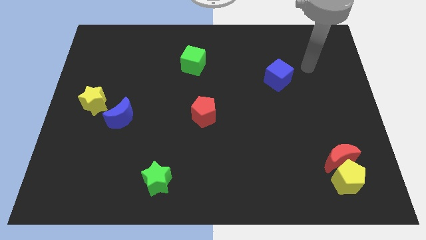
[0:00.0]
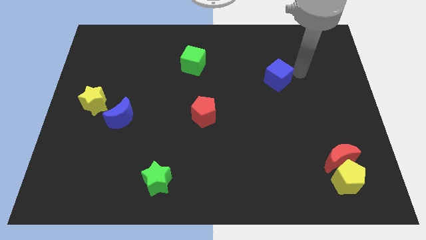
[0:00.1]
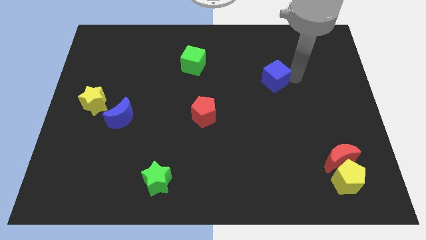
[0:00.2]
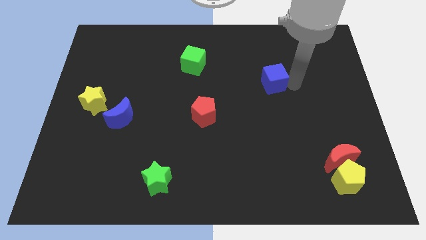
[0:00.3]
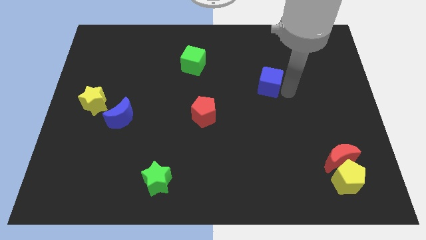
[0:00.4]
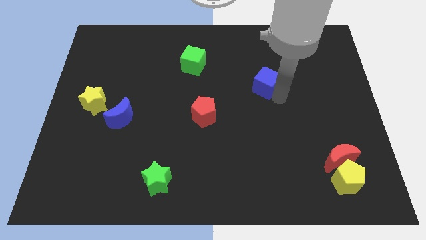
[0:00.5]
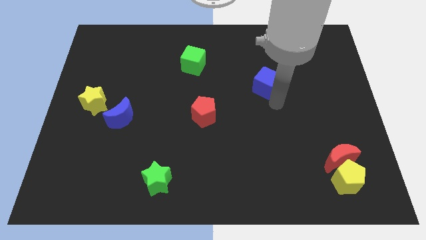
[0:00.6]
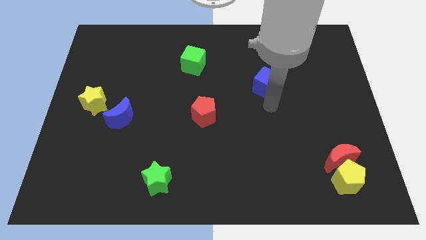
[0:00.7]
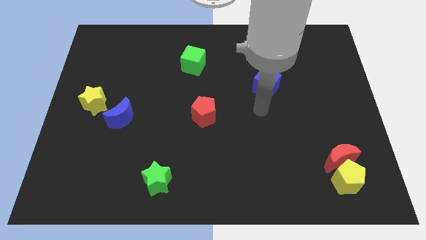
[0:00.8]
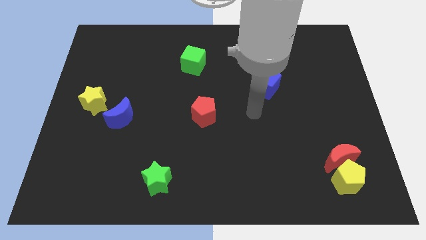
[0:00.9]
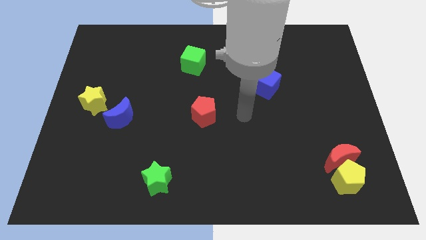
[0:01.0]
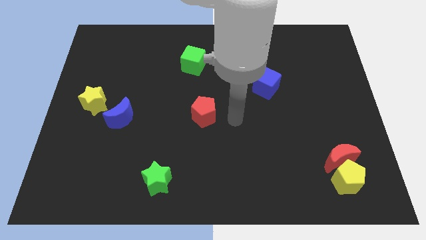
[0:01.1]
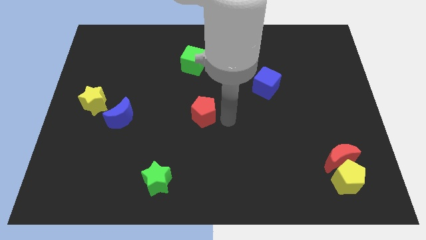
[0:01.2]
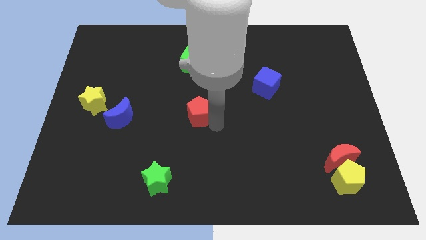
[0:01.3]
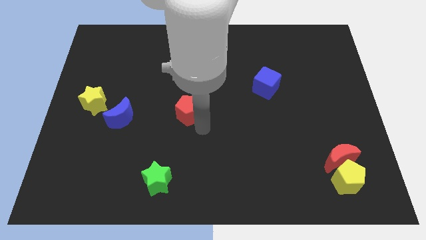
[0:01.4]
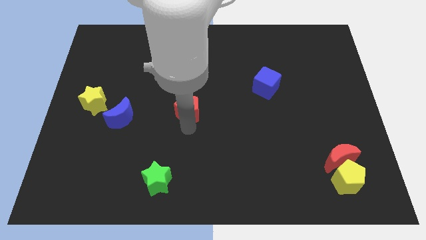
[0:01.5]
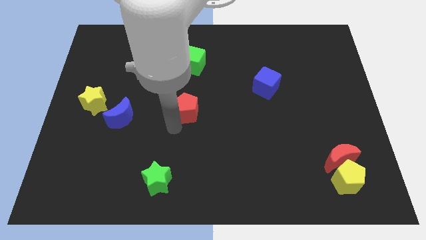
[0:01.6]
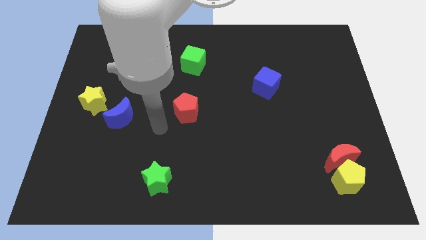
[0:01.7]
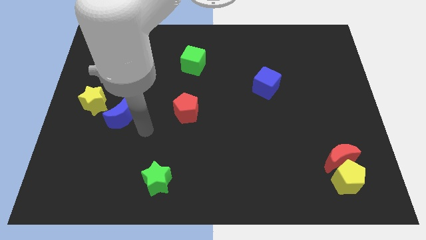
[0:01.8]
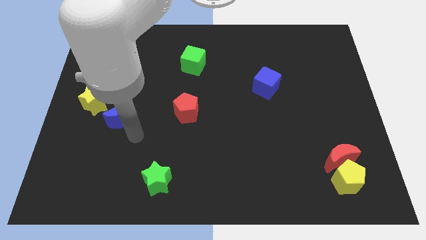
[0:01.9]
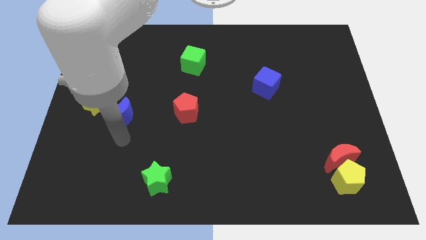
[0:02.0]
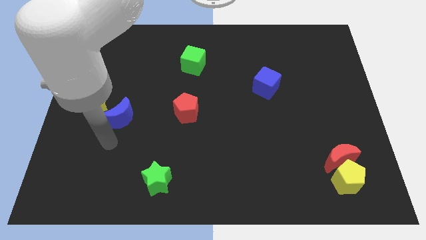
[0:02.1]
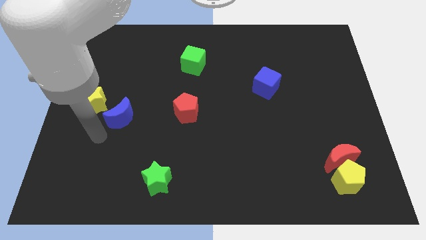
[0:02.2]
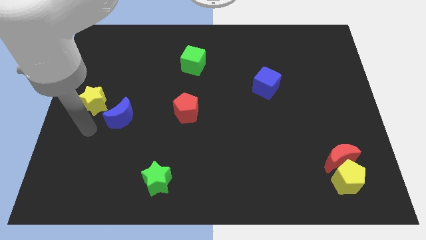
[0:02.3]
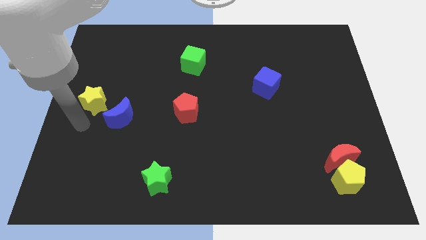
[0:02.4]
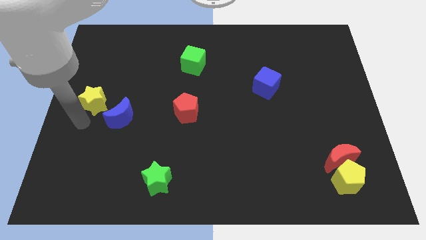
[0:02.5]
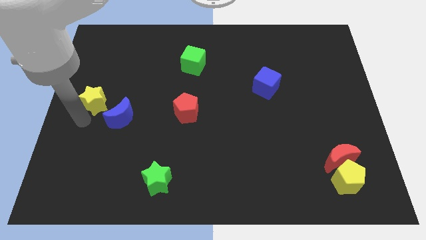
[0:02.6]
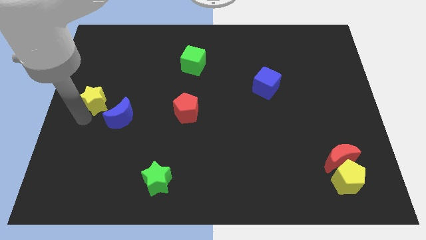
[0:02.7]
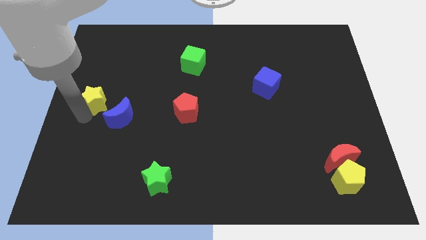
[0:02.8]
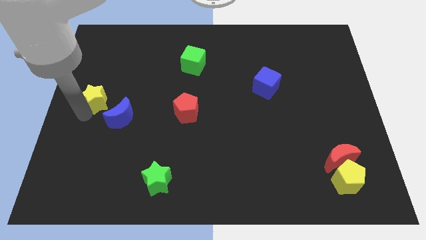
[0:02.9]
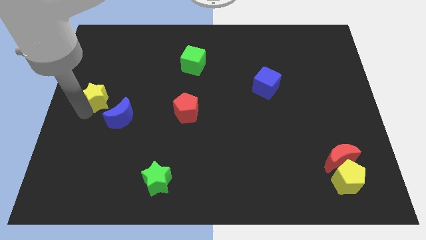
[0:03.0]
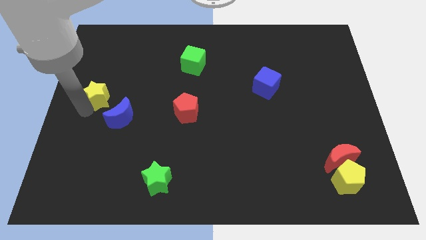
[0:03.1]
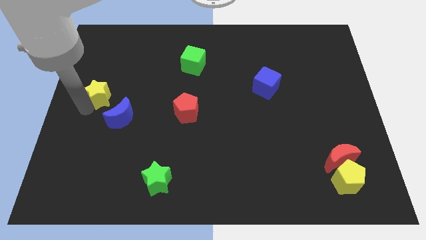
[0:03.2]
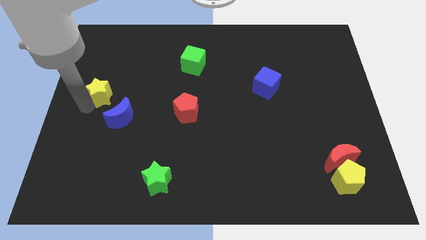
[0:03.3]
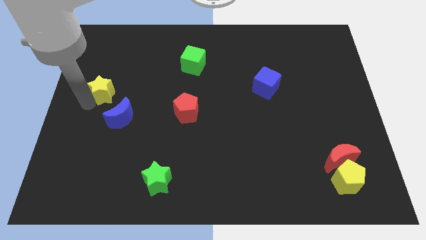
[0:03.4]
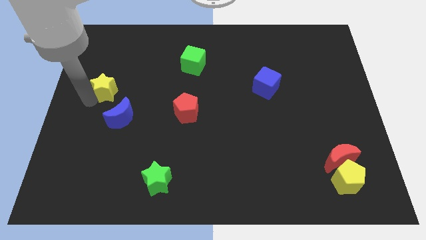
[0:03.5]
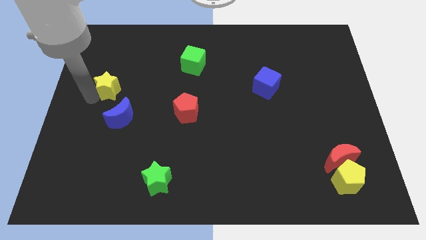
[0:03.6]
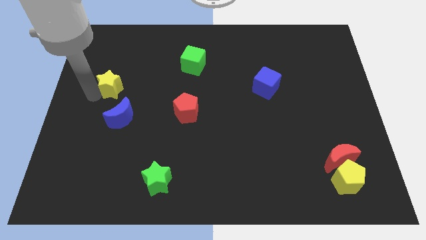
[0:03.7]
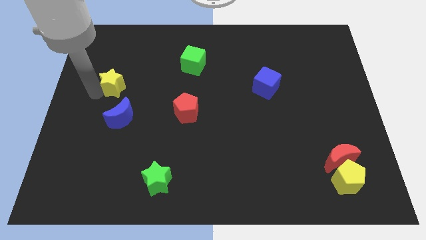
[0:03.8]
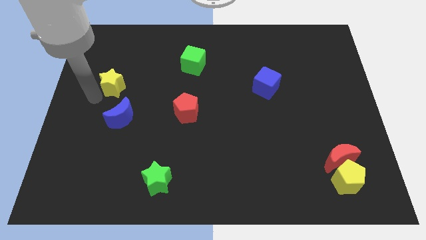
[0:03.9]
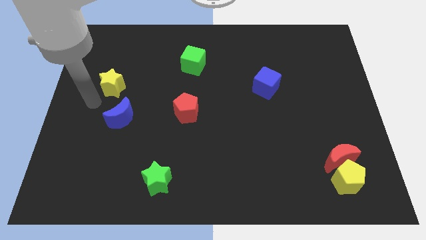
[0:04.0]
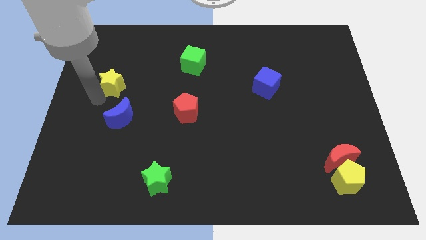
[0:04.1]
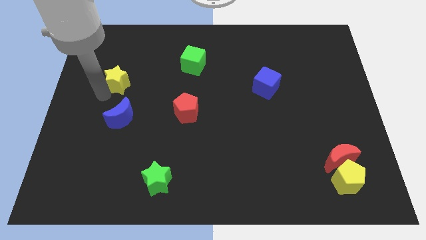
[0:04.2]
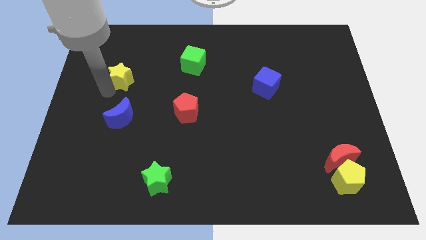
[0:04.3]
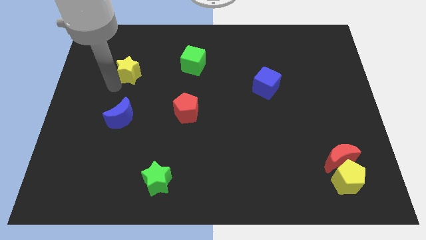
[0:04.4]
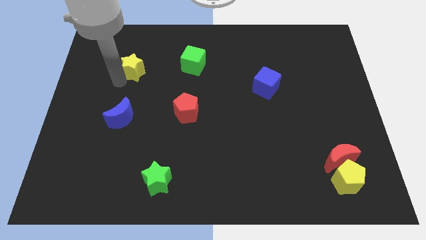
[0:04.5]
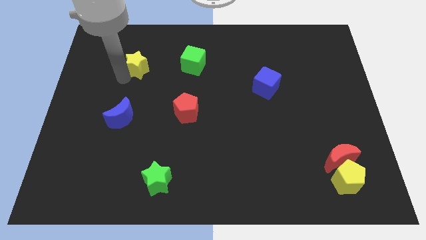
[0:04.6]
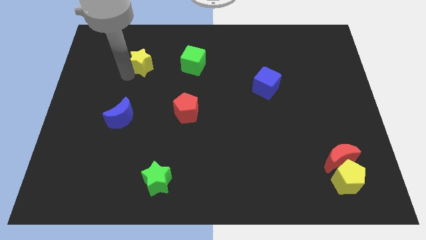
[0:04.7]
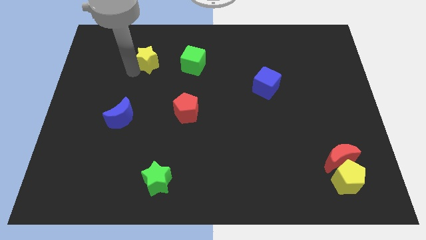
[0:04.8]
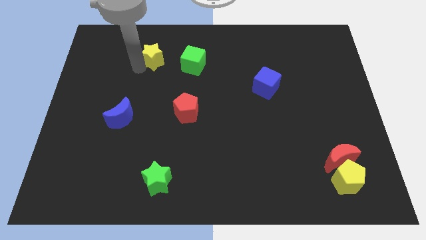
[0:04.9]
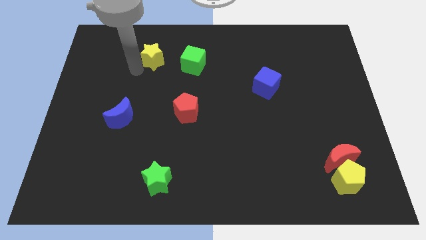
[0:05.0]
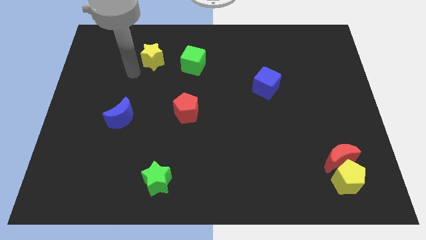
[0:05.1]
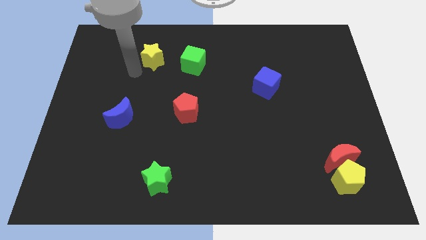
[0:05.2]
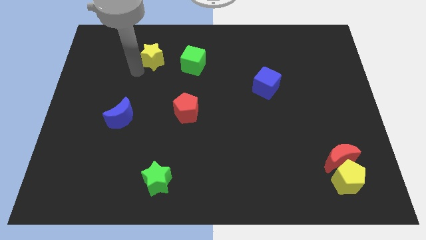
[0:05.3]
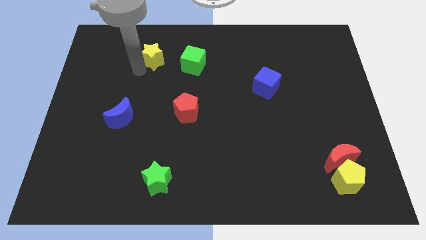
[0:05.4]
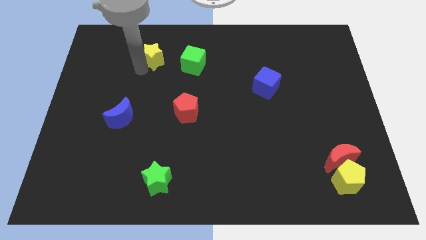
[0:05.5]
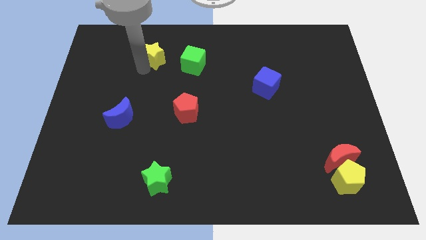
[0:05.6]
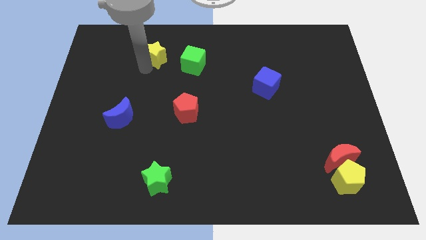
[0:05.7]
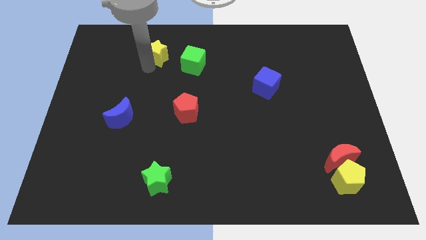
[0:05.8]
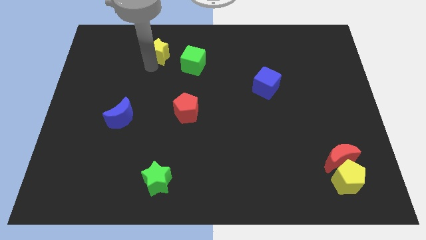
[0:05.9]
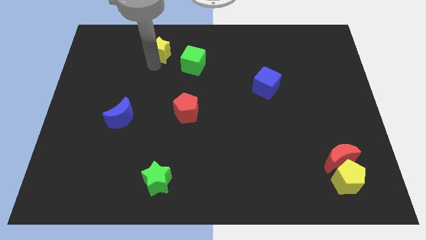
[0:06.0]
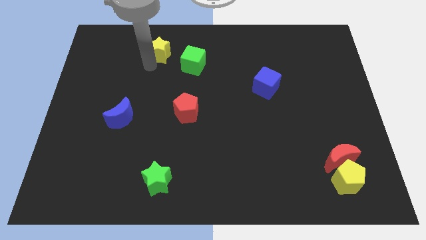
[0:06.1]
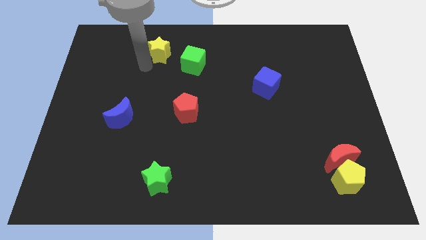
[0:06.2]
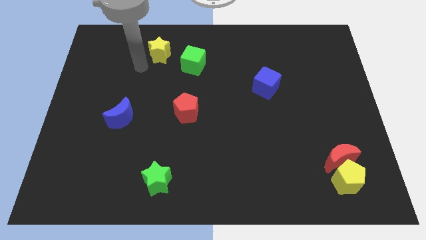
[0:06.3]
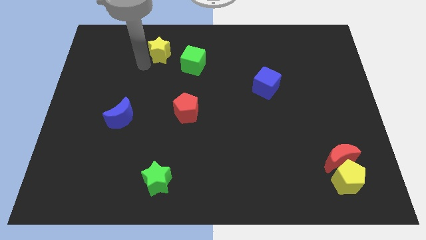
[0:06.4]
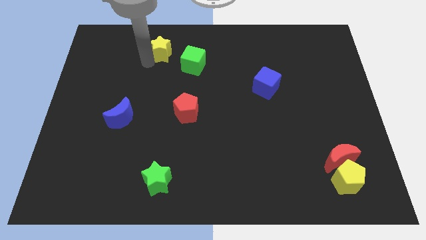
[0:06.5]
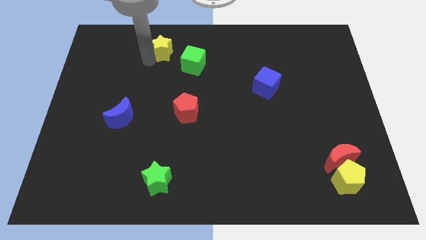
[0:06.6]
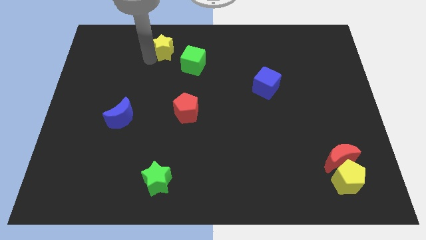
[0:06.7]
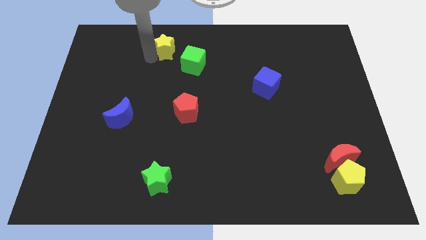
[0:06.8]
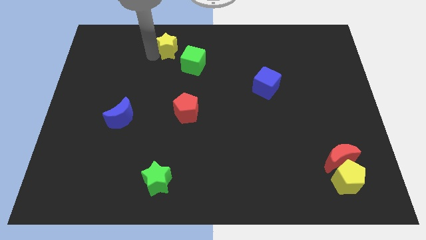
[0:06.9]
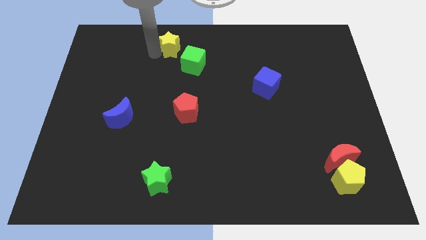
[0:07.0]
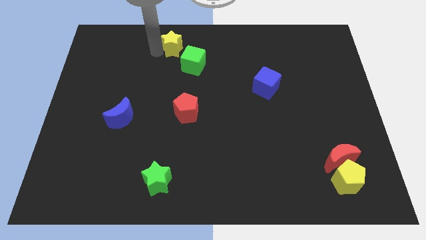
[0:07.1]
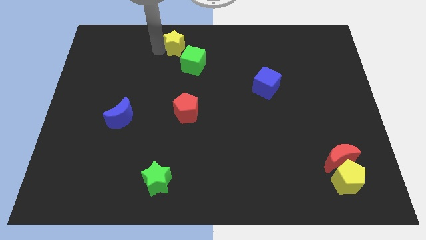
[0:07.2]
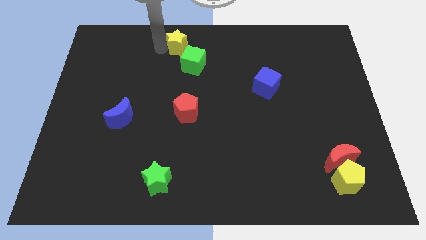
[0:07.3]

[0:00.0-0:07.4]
put the yellow star to the top side
